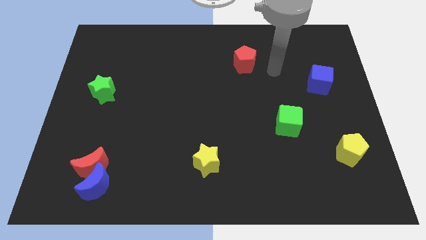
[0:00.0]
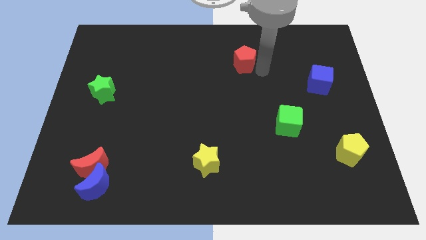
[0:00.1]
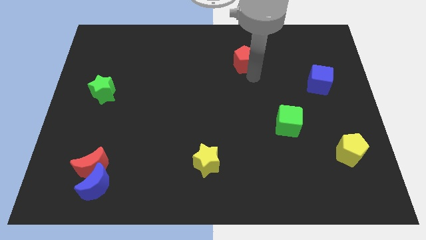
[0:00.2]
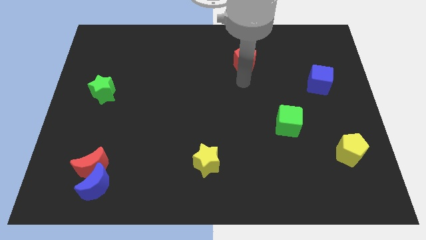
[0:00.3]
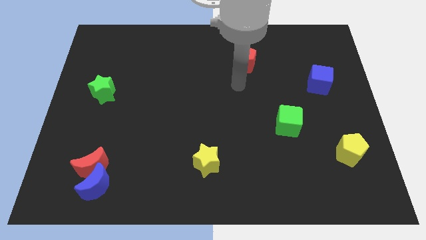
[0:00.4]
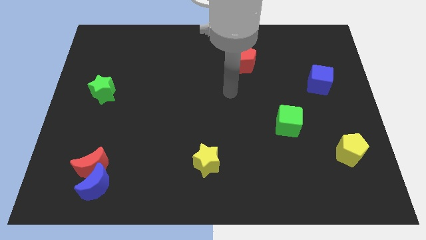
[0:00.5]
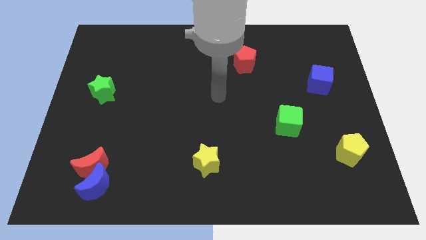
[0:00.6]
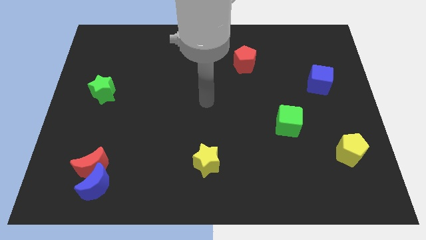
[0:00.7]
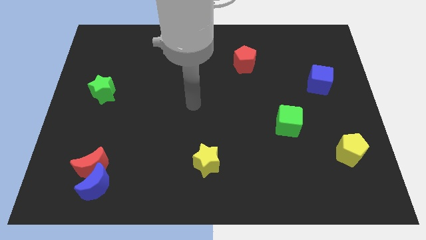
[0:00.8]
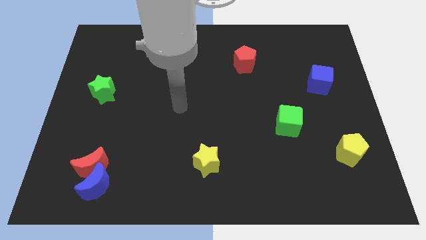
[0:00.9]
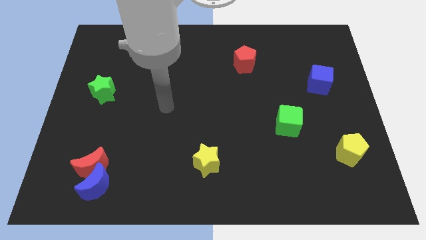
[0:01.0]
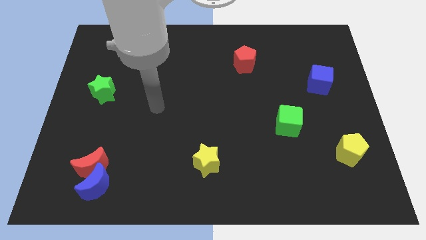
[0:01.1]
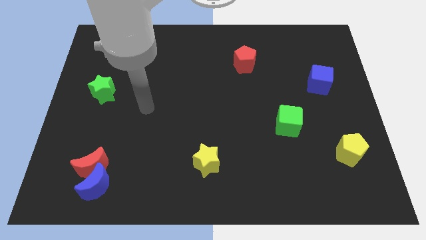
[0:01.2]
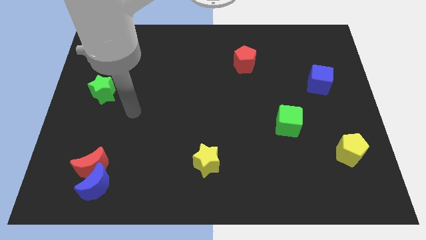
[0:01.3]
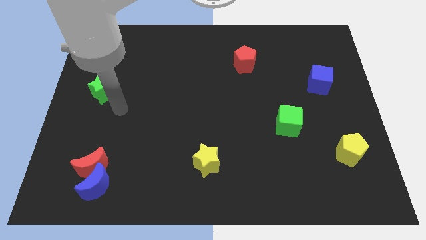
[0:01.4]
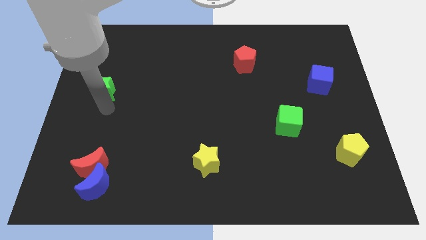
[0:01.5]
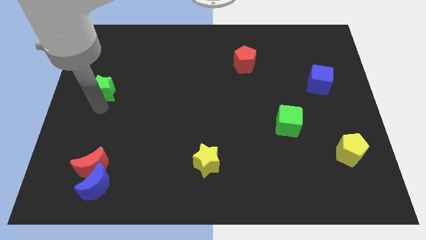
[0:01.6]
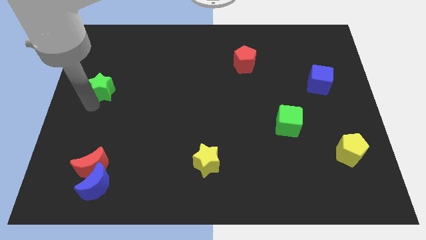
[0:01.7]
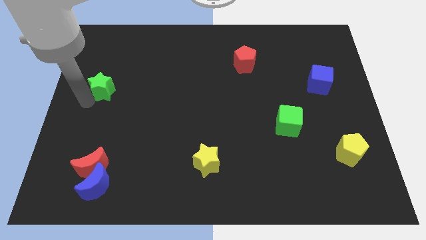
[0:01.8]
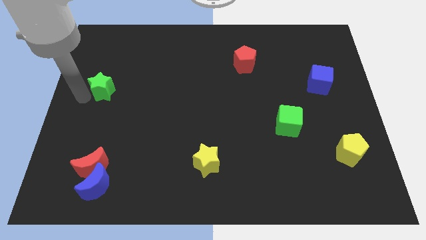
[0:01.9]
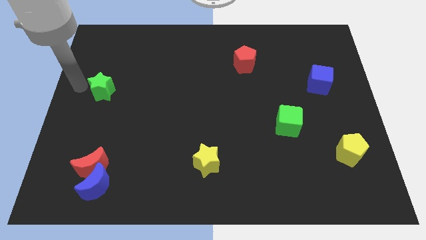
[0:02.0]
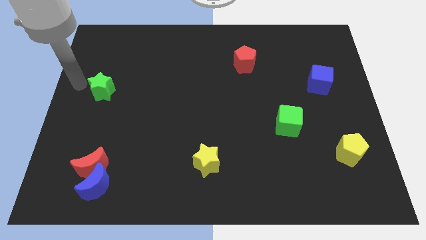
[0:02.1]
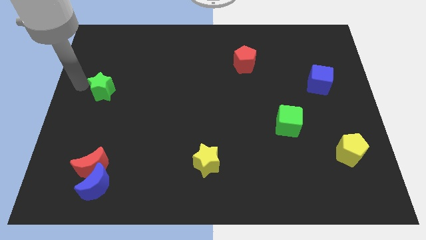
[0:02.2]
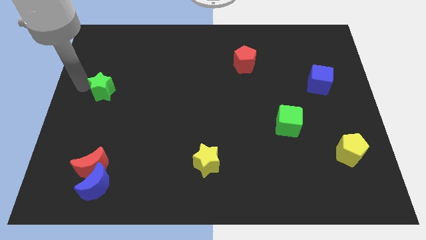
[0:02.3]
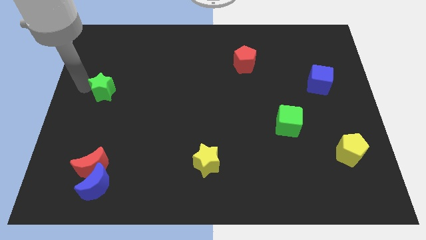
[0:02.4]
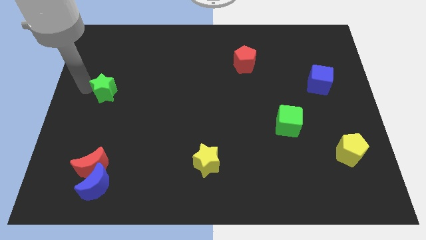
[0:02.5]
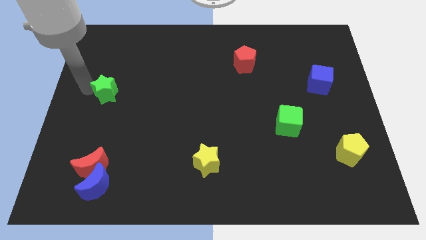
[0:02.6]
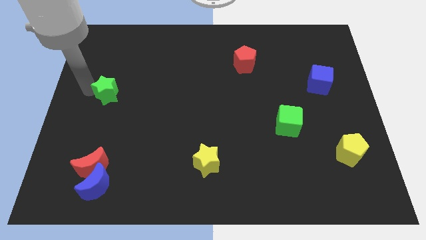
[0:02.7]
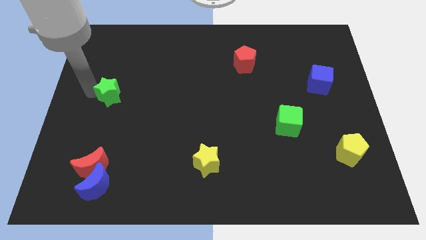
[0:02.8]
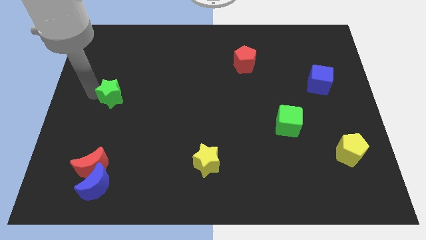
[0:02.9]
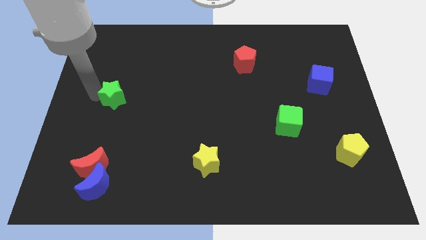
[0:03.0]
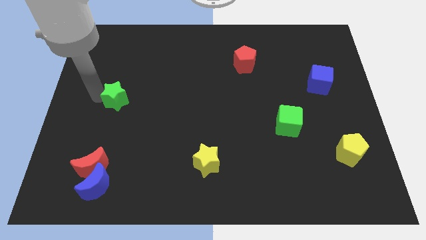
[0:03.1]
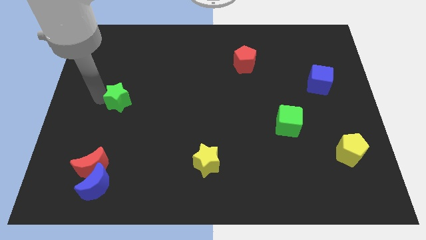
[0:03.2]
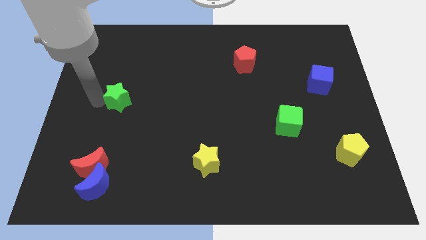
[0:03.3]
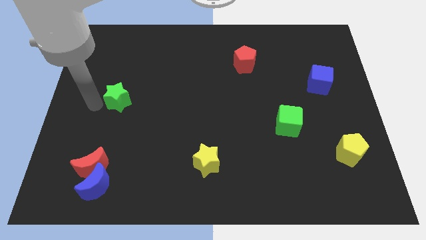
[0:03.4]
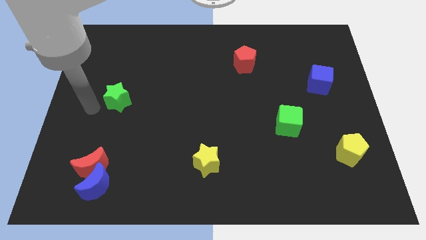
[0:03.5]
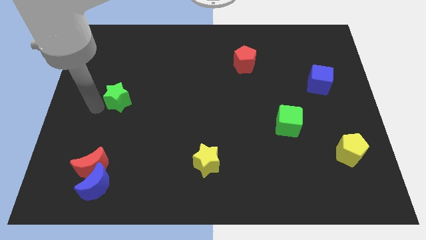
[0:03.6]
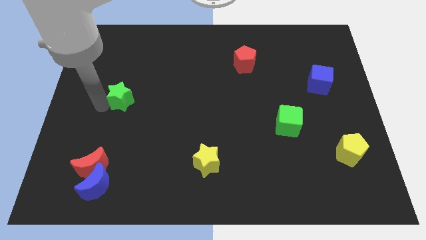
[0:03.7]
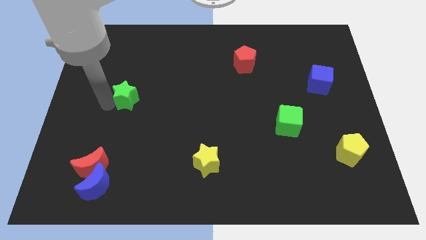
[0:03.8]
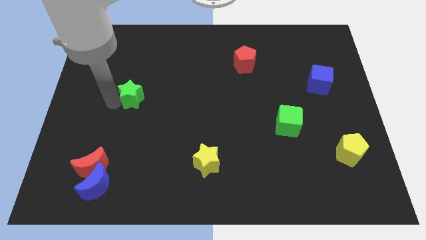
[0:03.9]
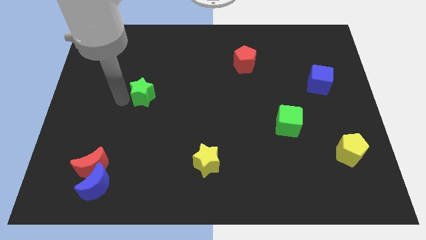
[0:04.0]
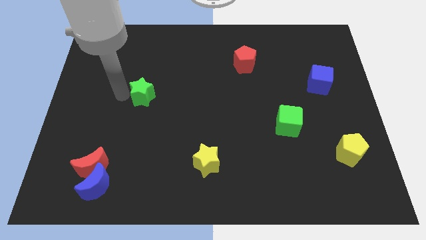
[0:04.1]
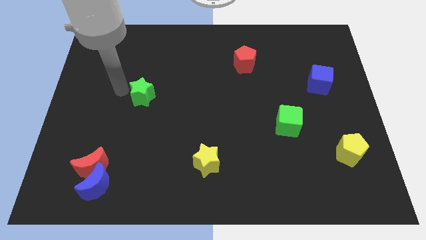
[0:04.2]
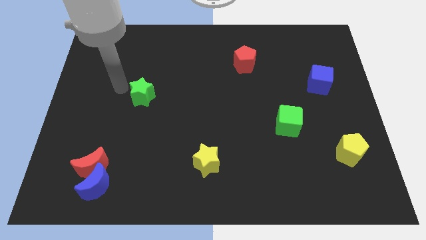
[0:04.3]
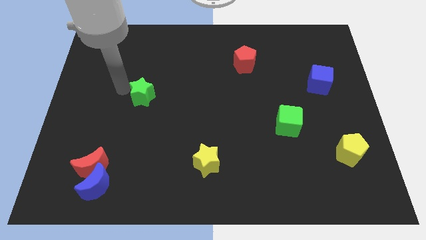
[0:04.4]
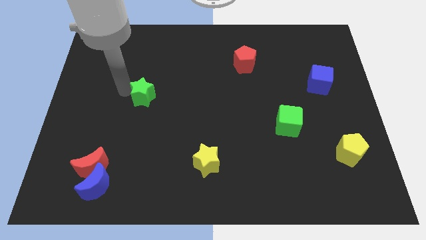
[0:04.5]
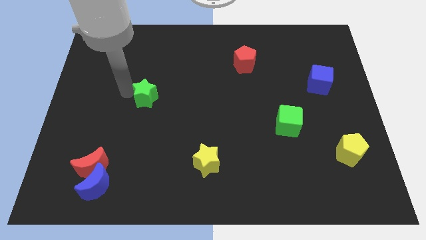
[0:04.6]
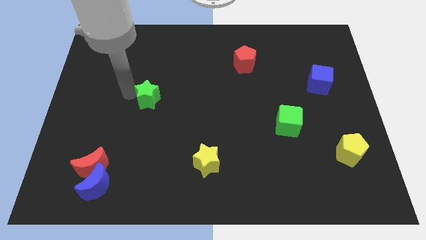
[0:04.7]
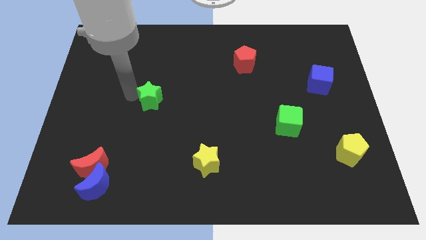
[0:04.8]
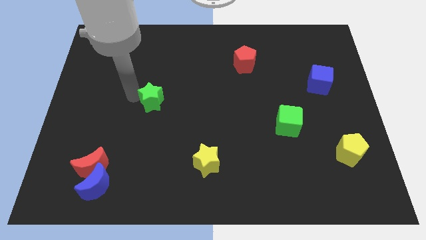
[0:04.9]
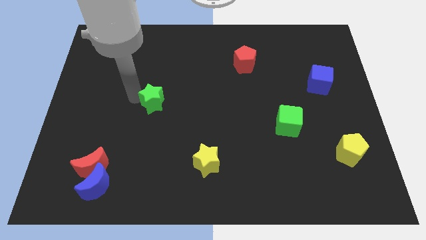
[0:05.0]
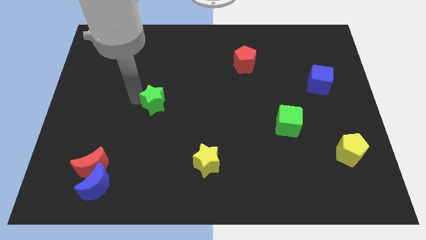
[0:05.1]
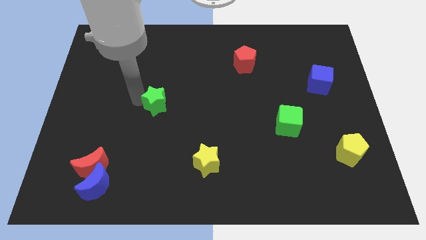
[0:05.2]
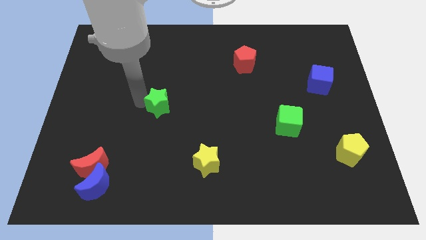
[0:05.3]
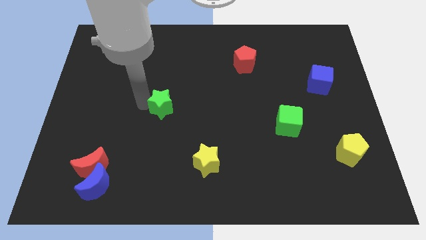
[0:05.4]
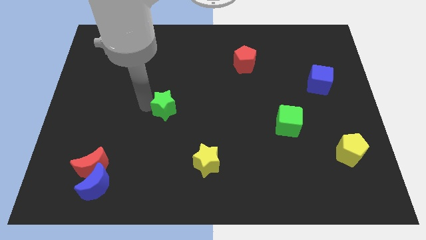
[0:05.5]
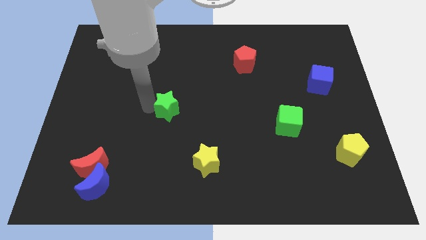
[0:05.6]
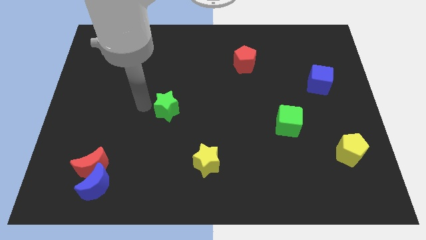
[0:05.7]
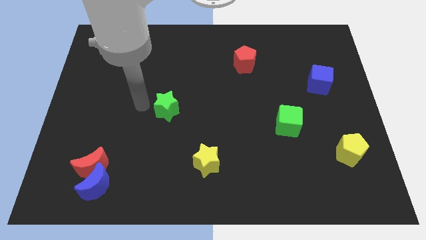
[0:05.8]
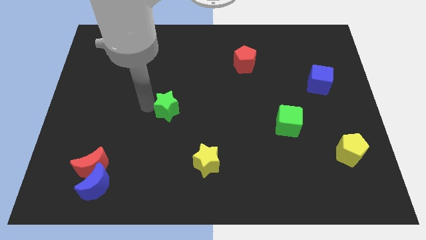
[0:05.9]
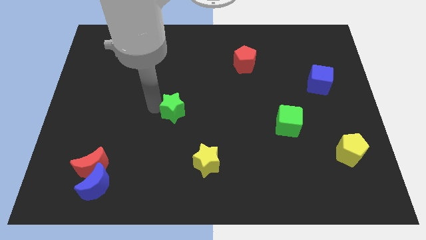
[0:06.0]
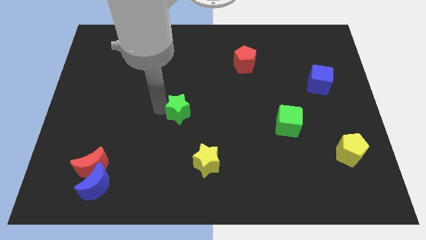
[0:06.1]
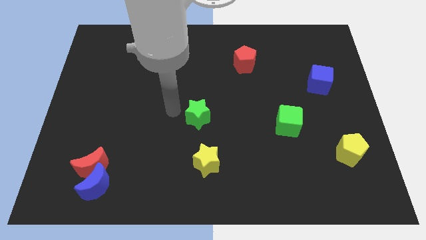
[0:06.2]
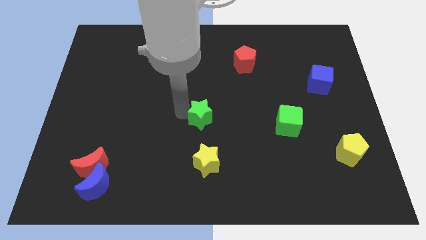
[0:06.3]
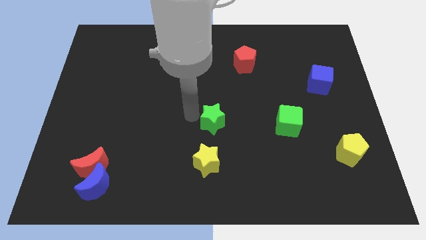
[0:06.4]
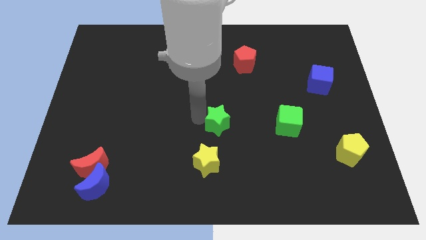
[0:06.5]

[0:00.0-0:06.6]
push the green star left of the green cube

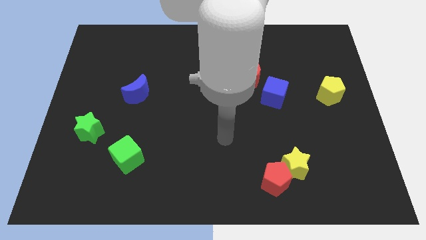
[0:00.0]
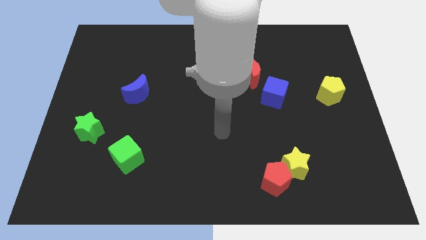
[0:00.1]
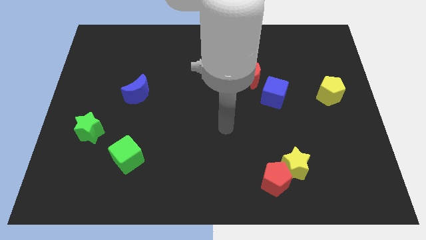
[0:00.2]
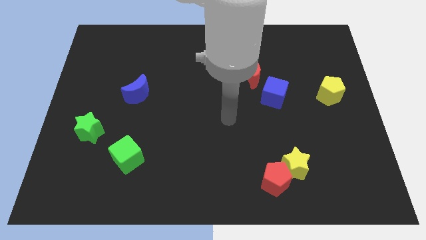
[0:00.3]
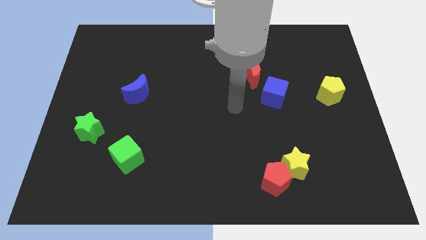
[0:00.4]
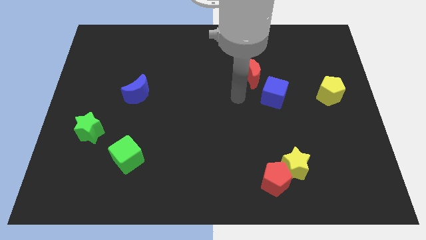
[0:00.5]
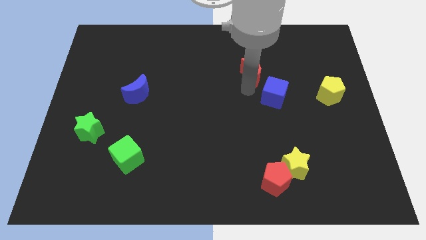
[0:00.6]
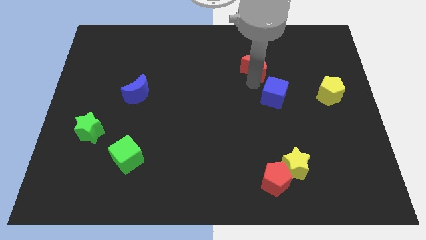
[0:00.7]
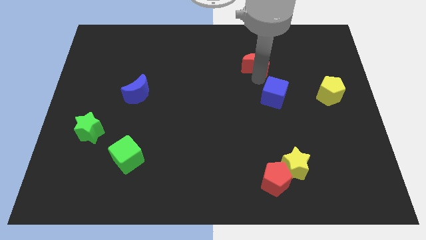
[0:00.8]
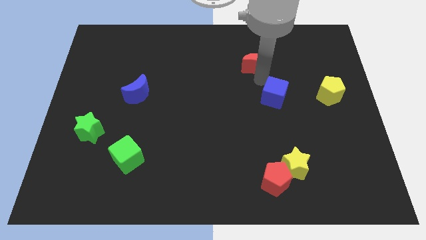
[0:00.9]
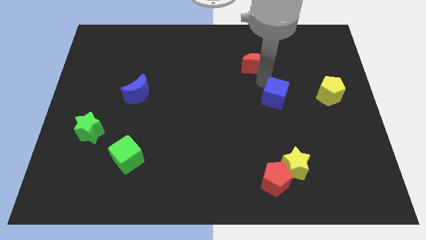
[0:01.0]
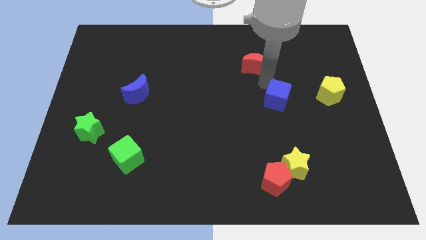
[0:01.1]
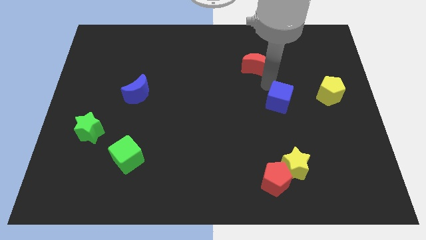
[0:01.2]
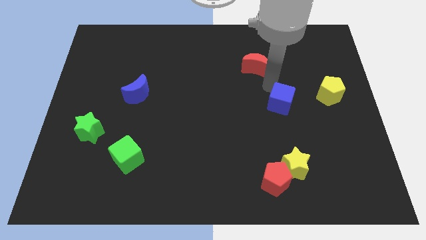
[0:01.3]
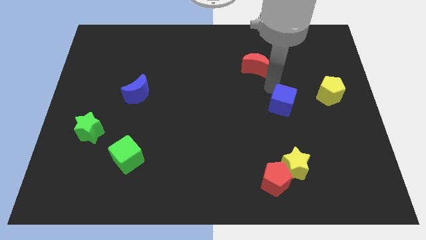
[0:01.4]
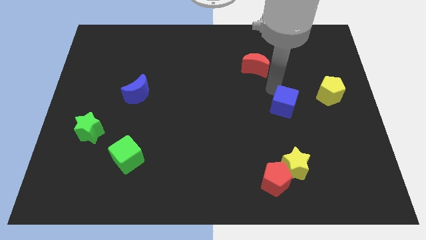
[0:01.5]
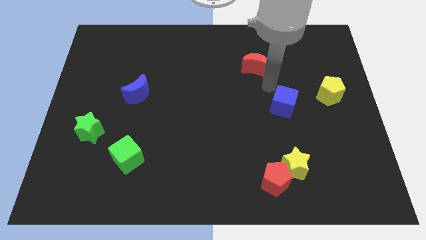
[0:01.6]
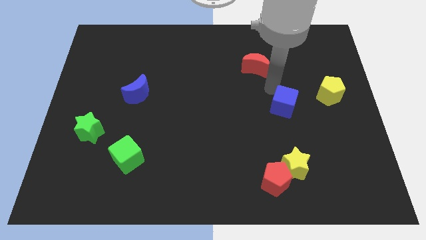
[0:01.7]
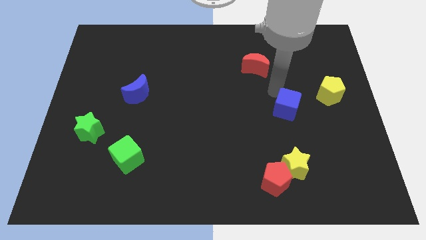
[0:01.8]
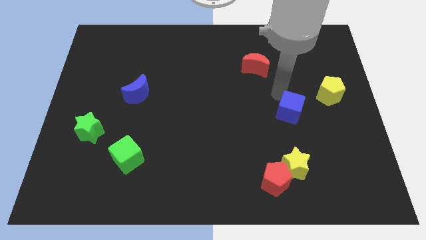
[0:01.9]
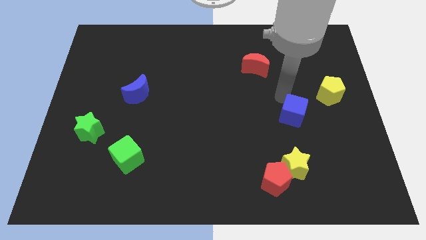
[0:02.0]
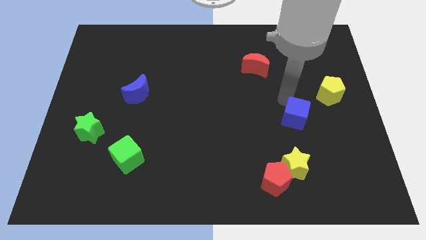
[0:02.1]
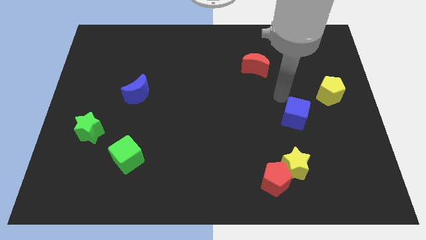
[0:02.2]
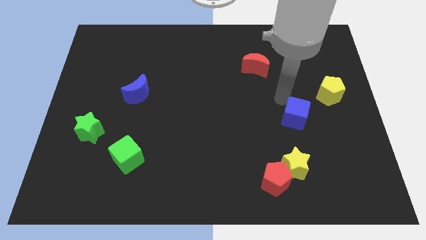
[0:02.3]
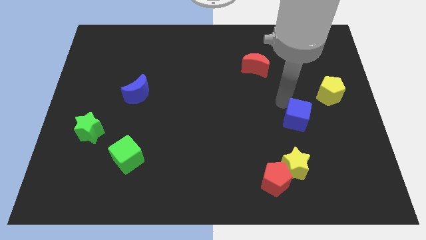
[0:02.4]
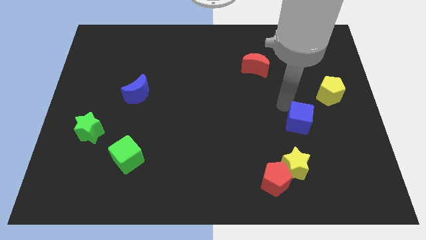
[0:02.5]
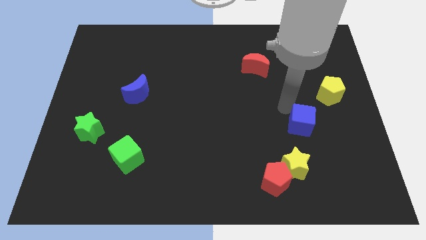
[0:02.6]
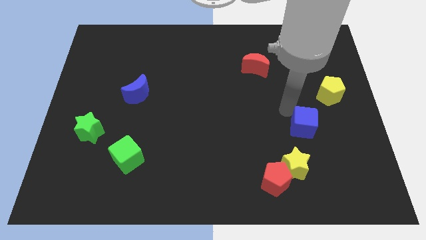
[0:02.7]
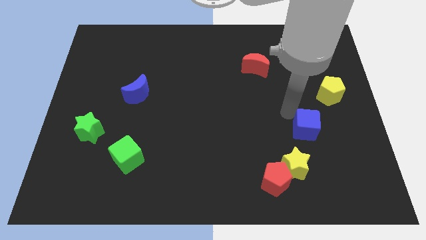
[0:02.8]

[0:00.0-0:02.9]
push the blue cube to the top right side of the yellow star
